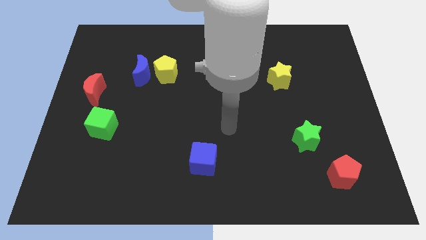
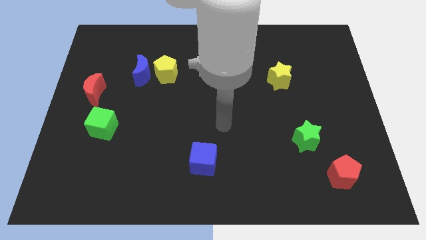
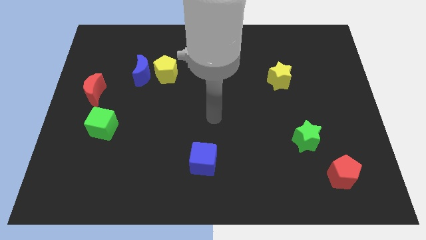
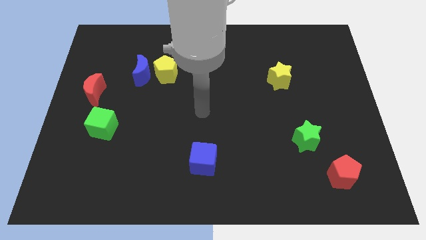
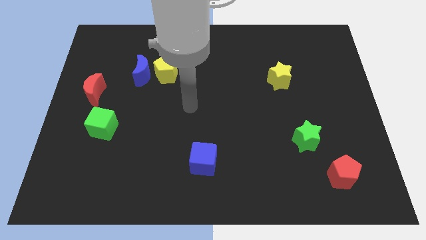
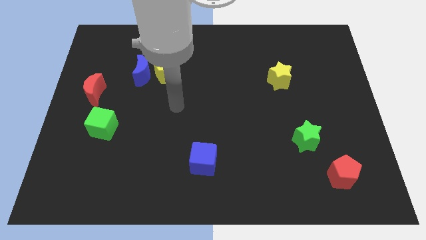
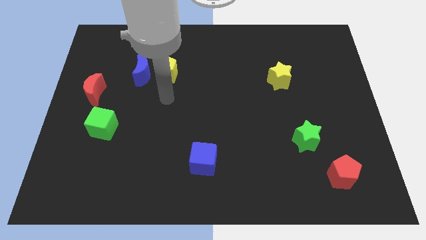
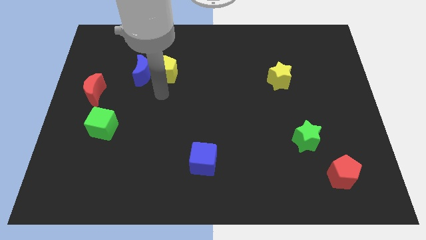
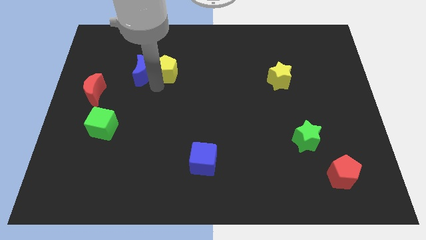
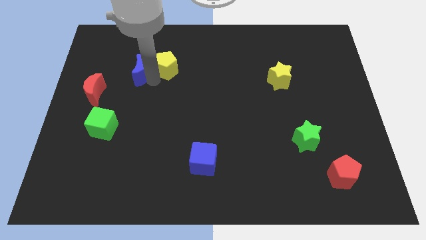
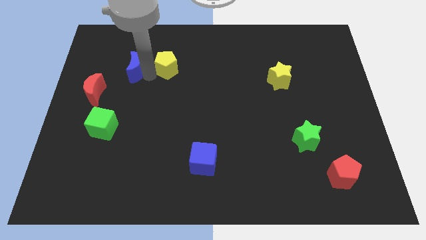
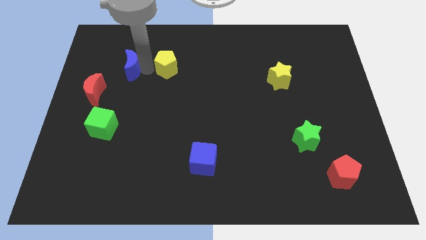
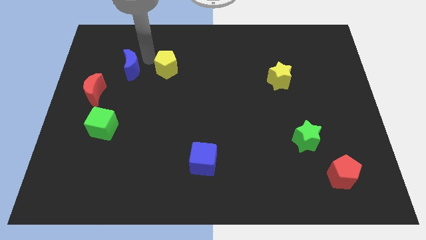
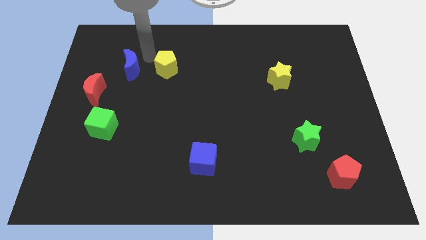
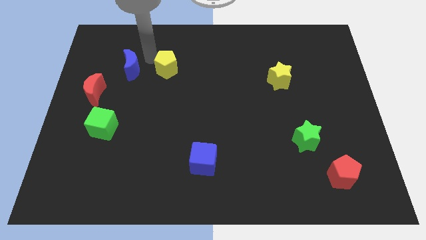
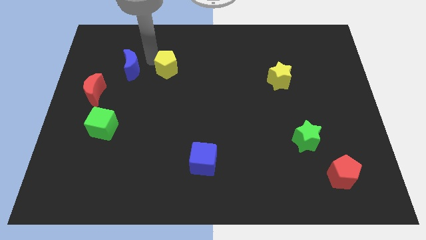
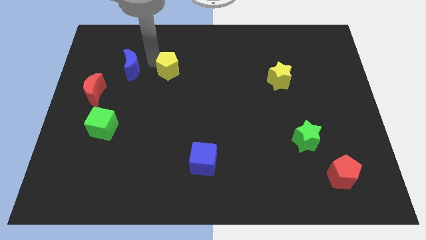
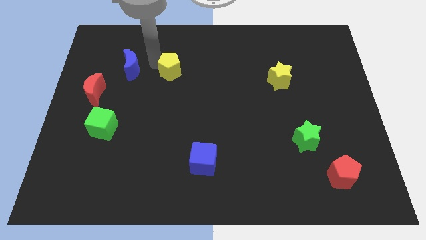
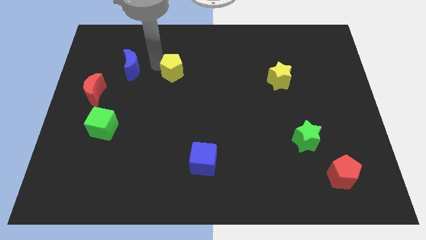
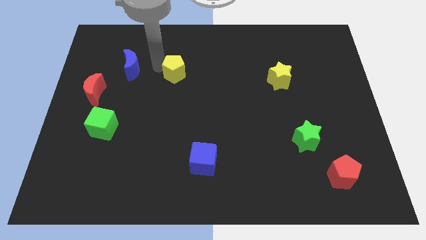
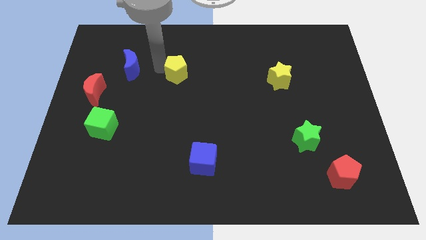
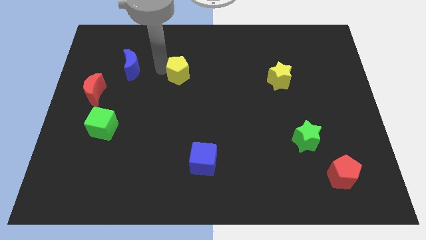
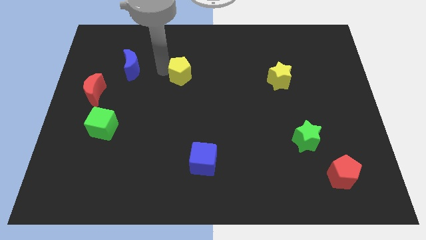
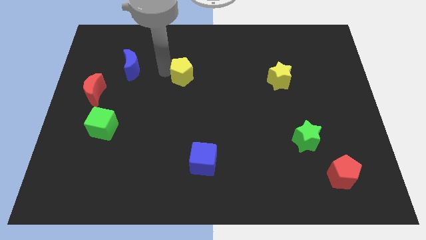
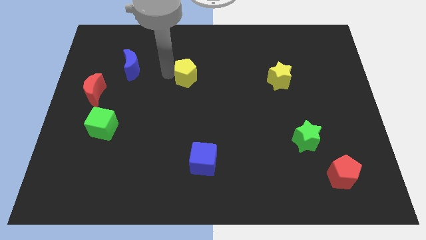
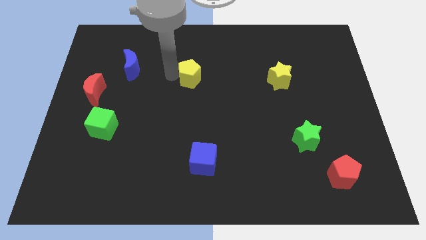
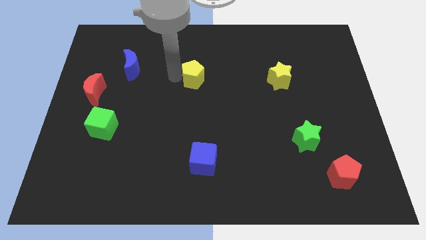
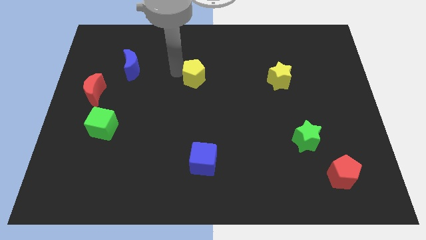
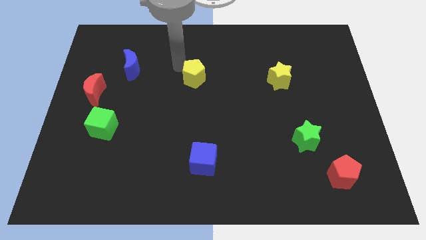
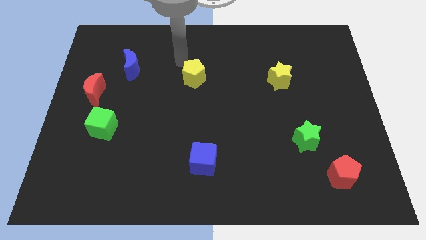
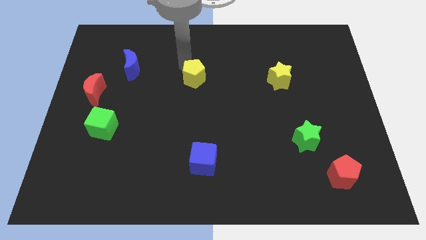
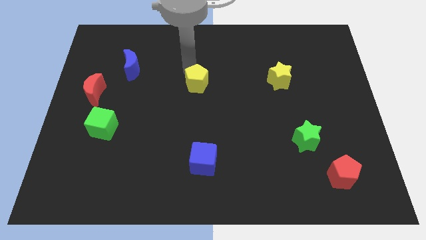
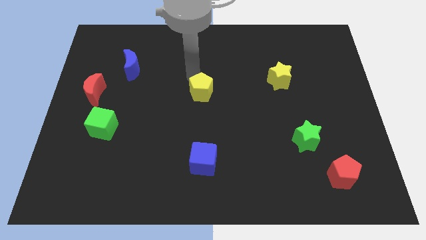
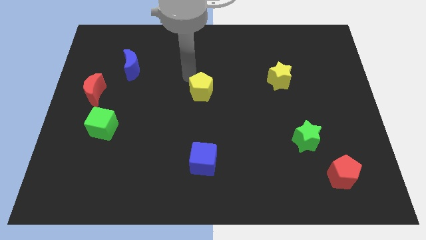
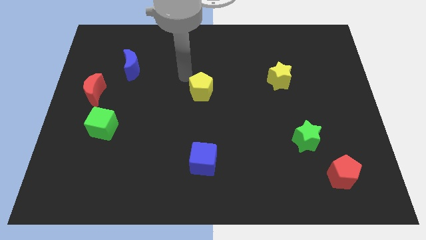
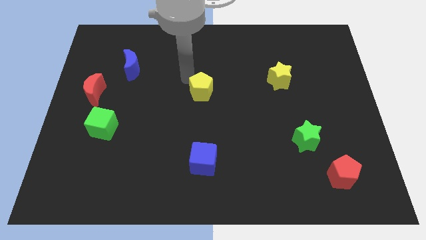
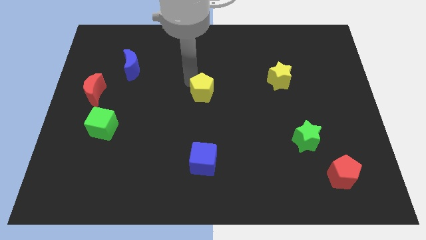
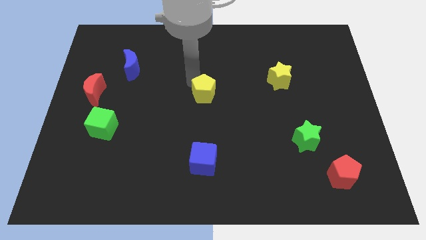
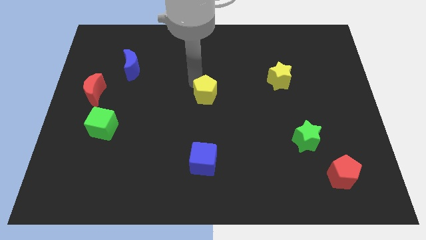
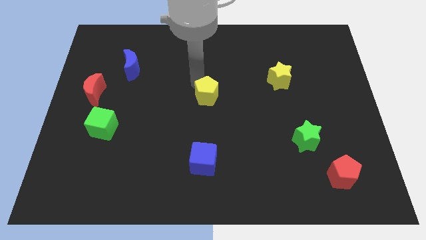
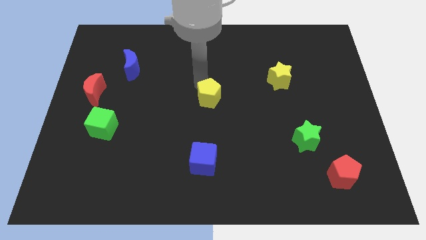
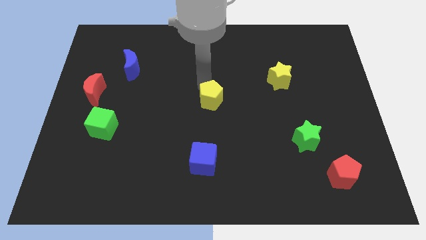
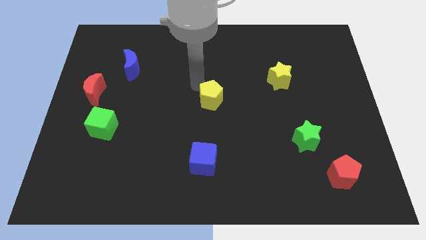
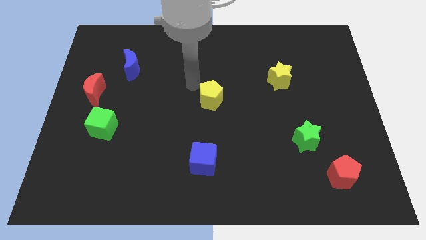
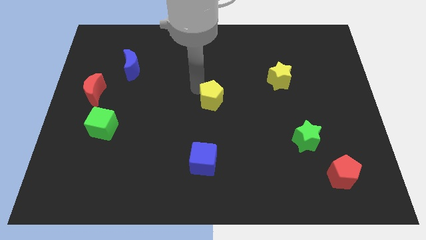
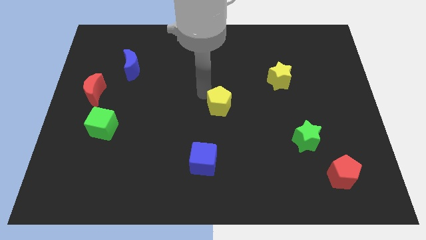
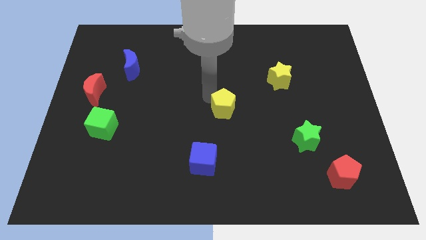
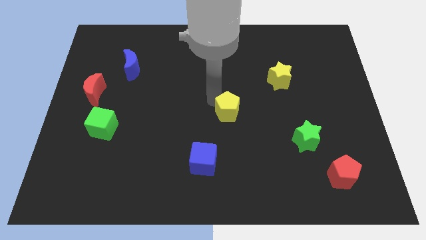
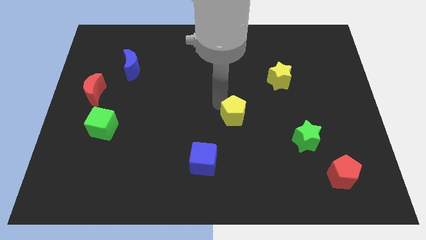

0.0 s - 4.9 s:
slide the yellow pentagon down and then right

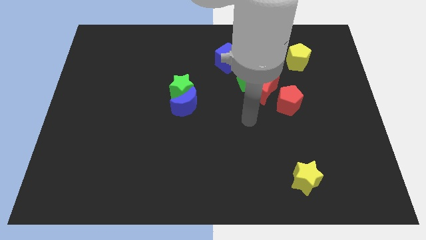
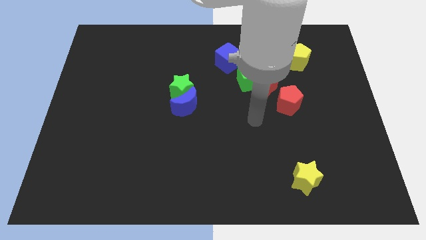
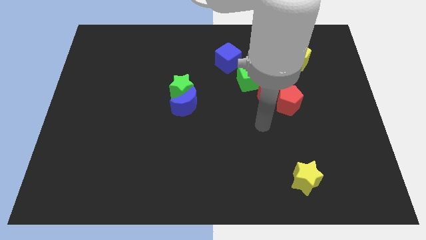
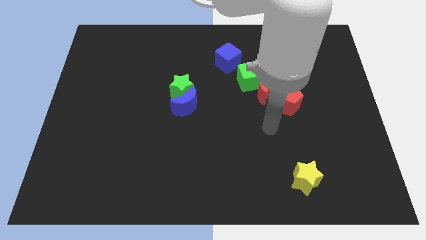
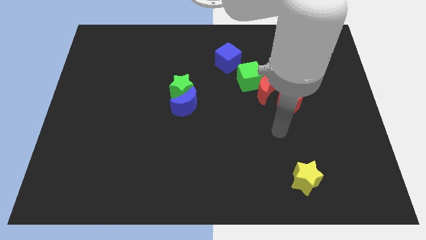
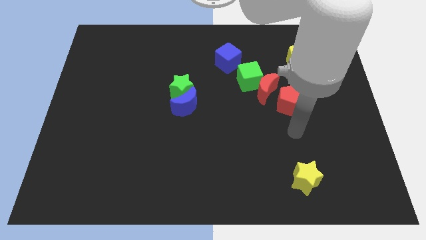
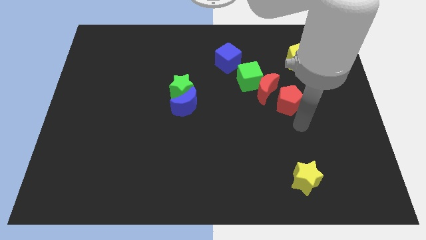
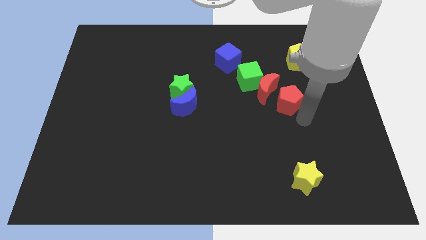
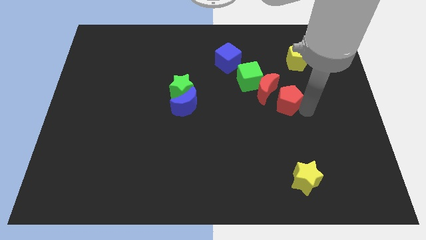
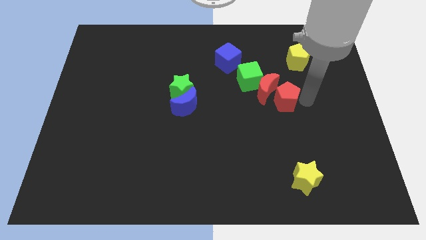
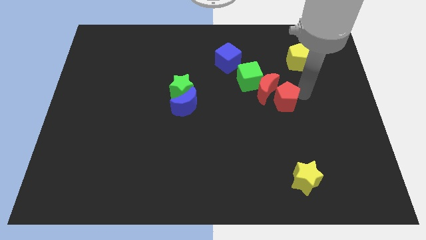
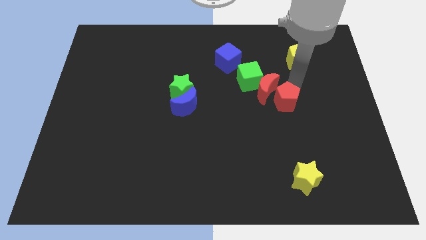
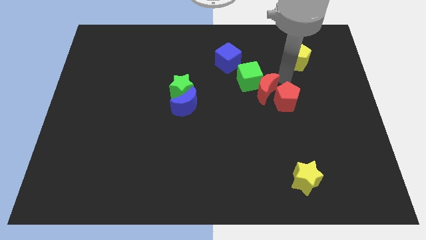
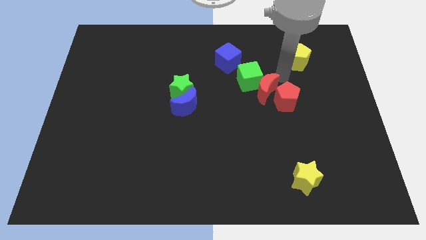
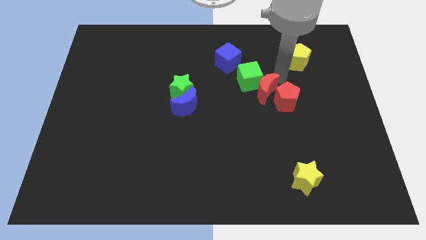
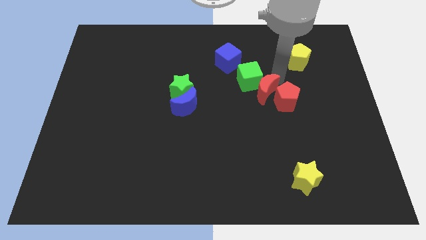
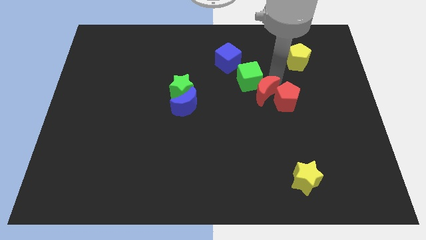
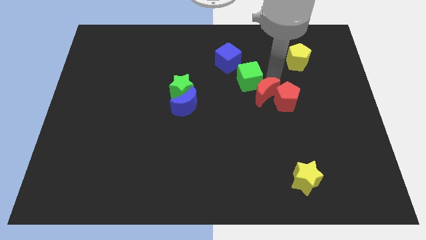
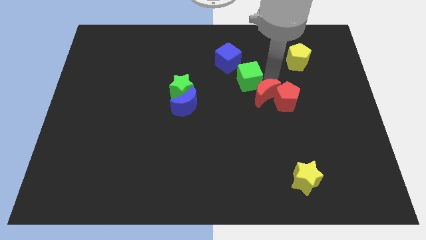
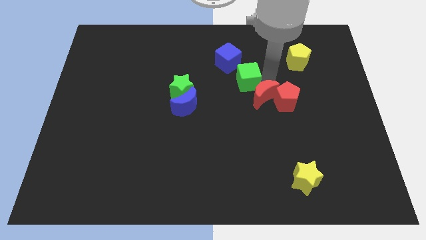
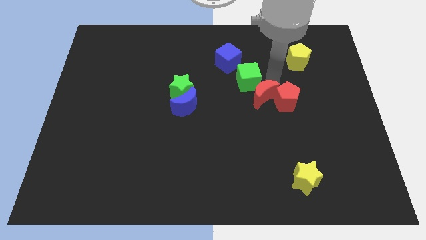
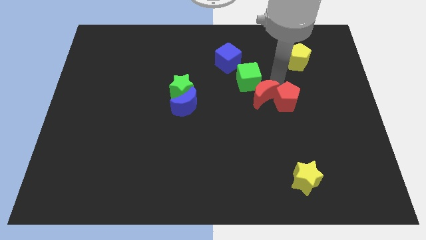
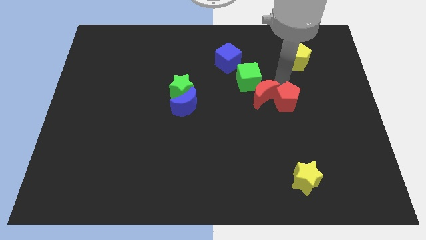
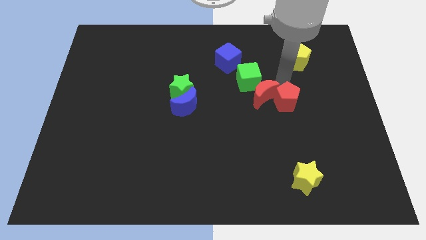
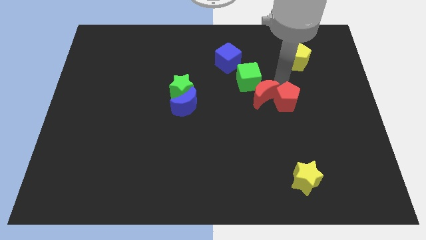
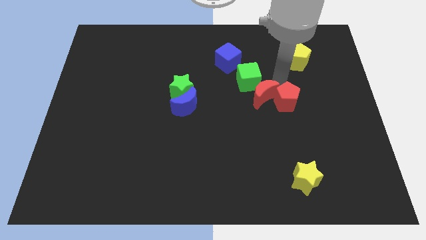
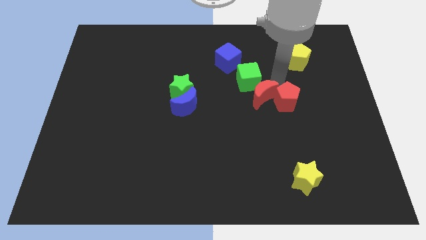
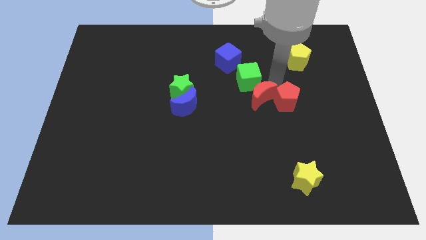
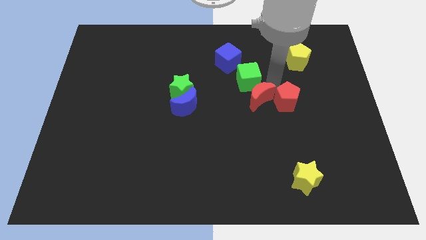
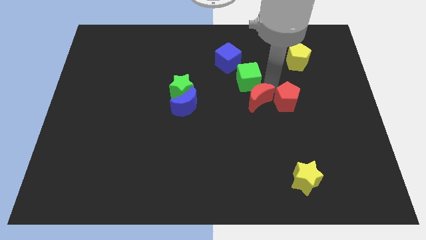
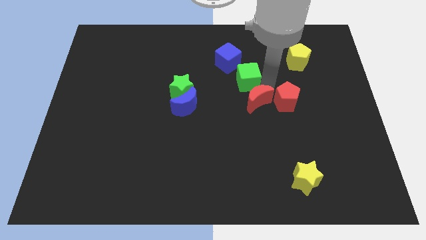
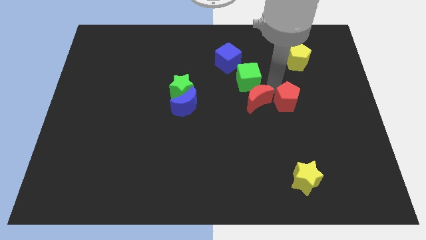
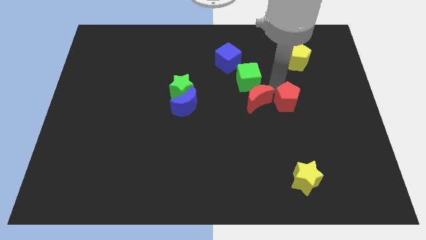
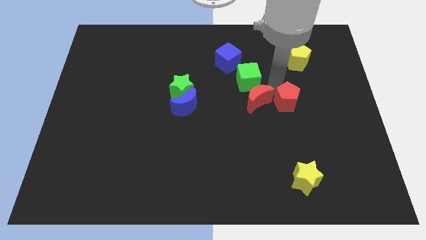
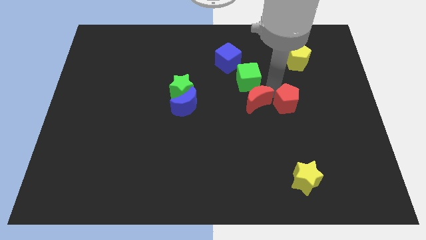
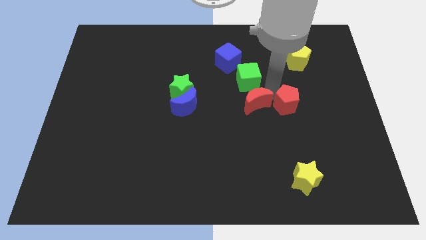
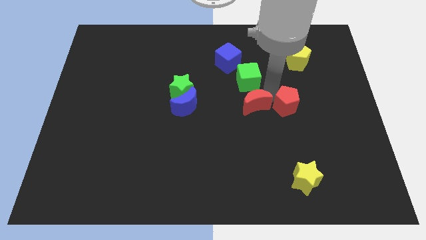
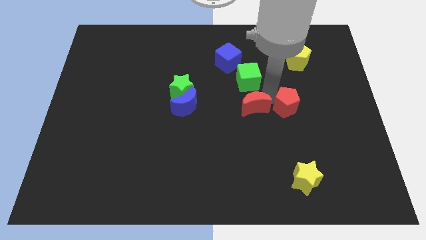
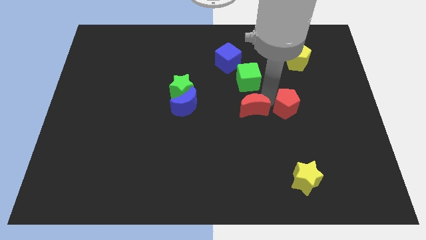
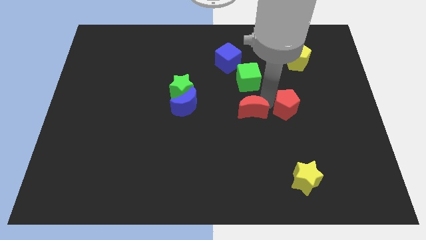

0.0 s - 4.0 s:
push the red moon diagonally downwards and left slightly
